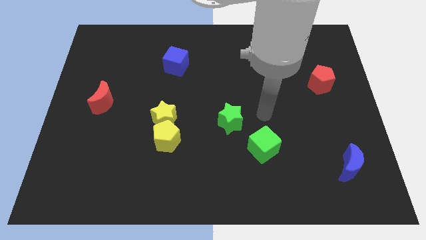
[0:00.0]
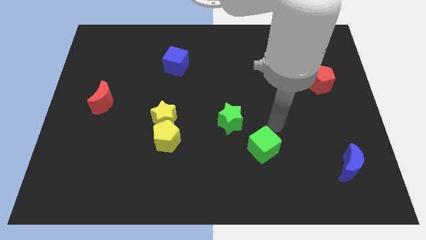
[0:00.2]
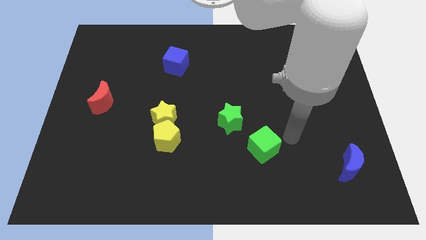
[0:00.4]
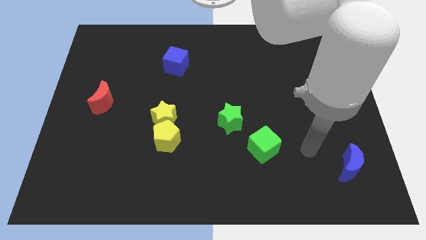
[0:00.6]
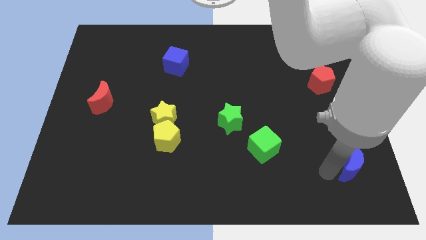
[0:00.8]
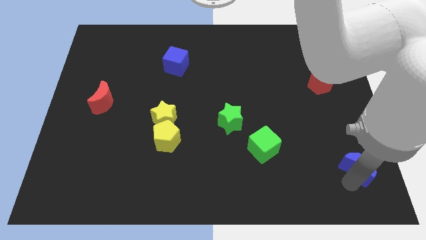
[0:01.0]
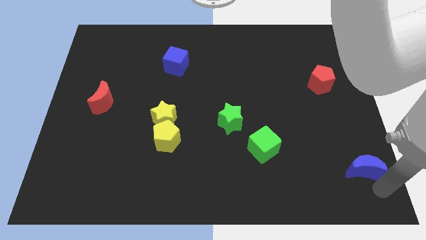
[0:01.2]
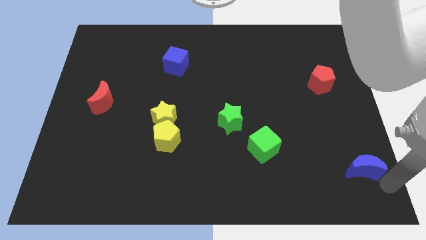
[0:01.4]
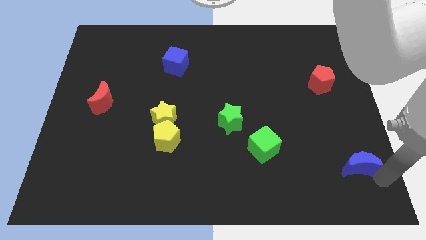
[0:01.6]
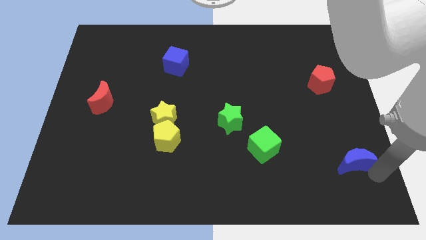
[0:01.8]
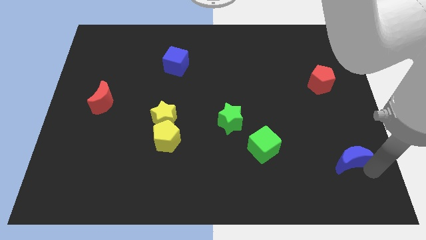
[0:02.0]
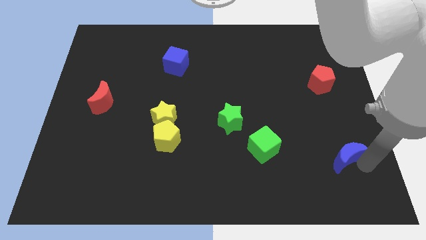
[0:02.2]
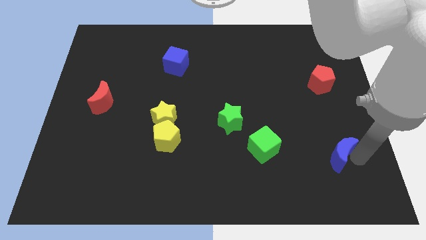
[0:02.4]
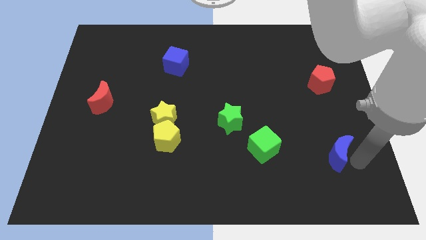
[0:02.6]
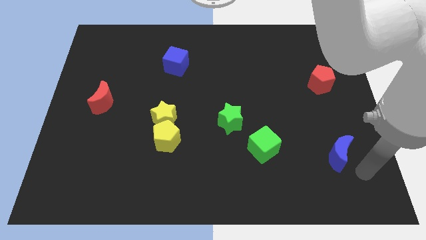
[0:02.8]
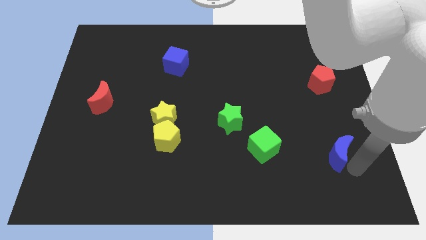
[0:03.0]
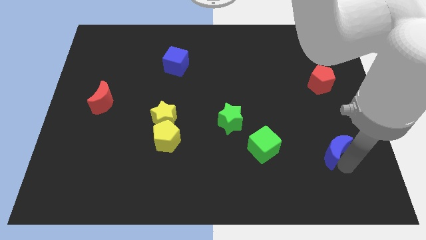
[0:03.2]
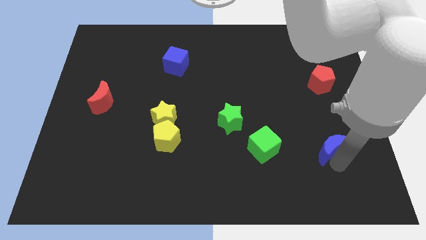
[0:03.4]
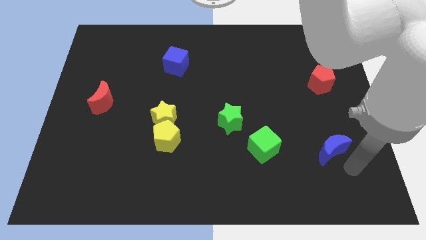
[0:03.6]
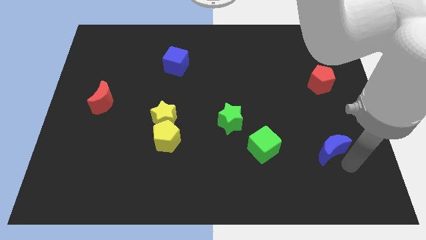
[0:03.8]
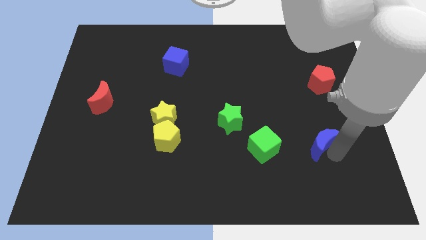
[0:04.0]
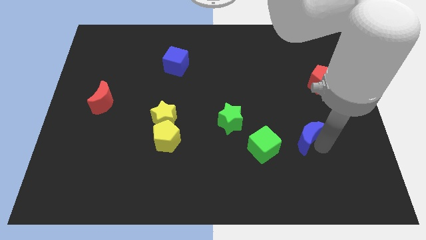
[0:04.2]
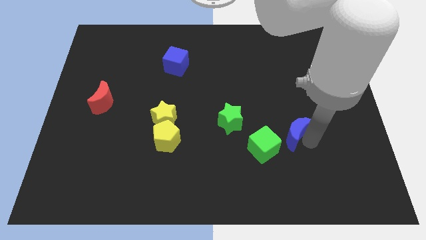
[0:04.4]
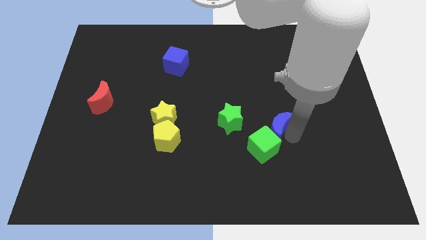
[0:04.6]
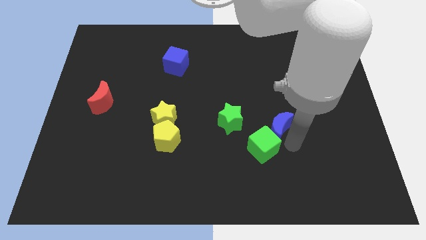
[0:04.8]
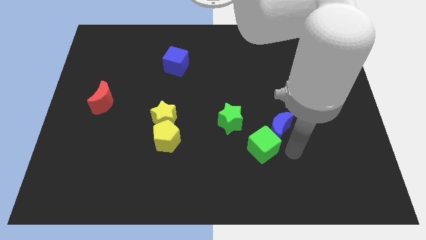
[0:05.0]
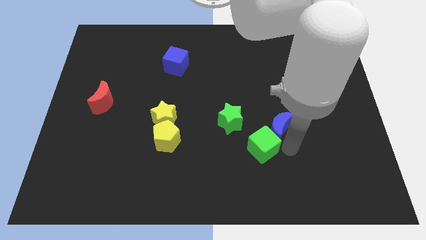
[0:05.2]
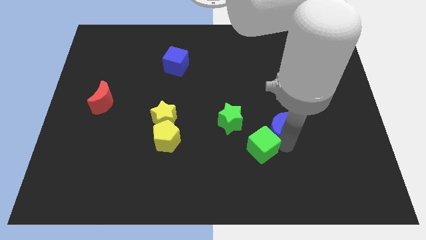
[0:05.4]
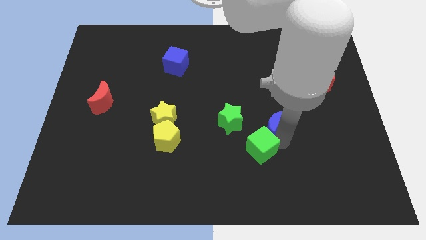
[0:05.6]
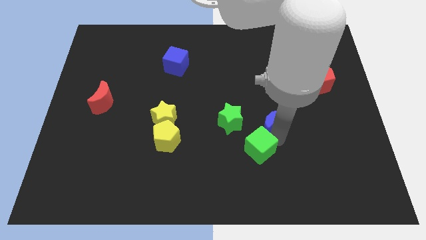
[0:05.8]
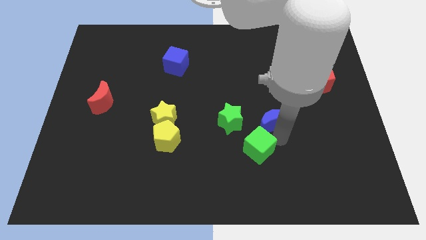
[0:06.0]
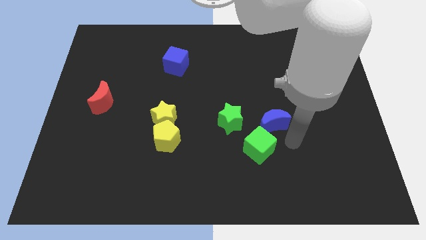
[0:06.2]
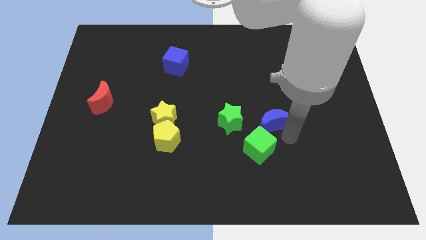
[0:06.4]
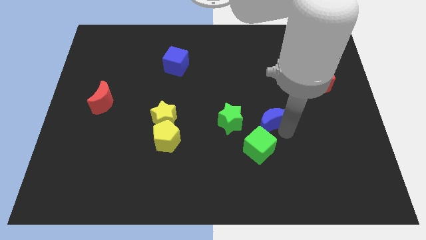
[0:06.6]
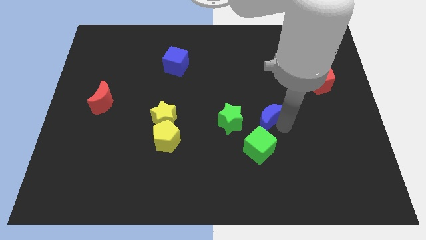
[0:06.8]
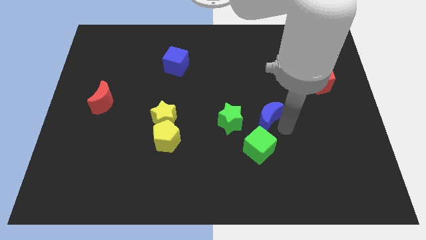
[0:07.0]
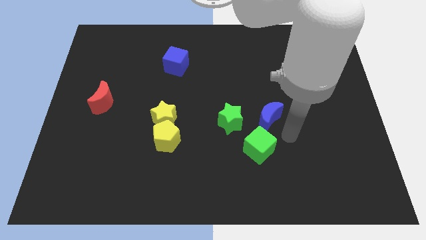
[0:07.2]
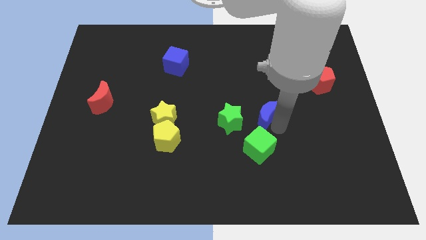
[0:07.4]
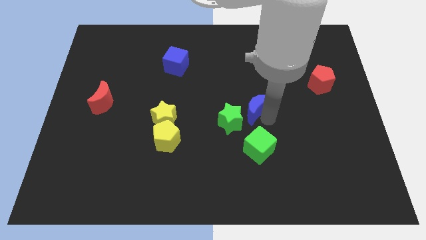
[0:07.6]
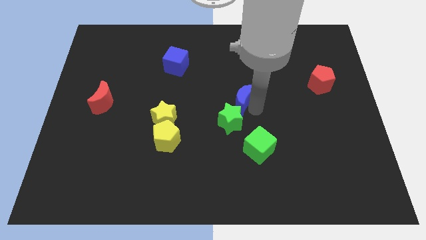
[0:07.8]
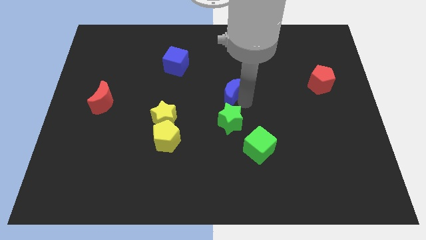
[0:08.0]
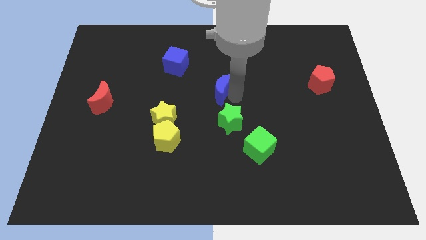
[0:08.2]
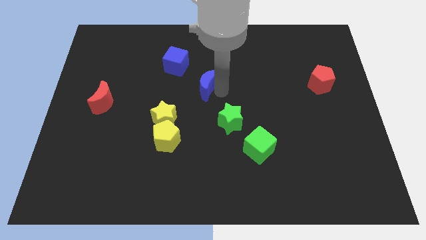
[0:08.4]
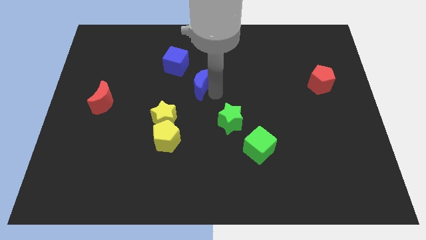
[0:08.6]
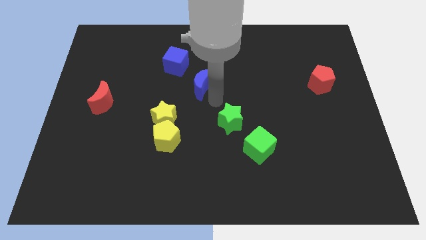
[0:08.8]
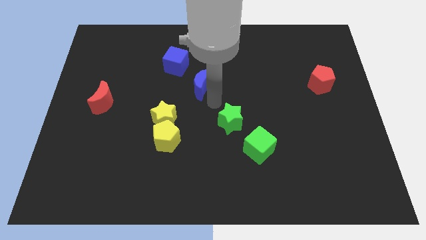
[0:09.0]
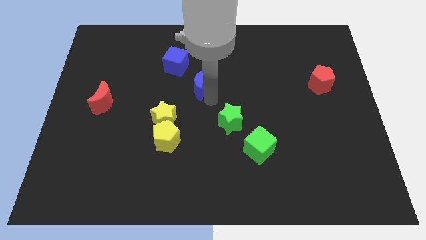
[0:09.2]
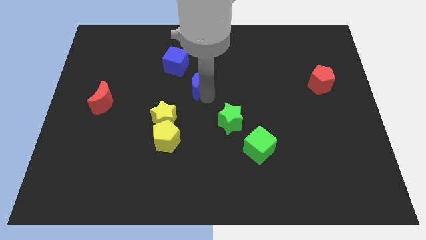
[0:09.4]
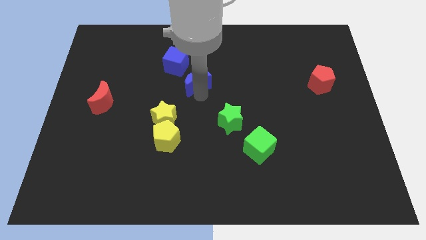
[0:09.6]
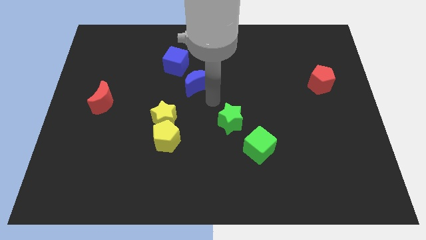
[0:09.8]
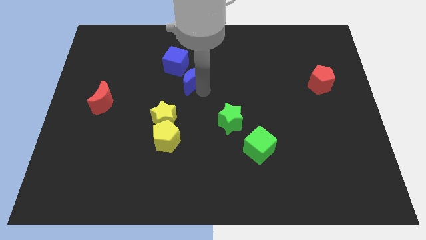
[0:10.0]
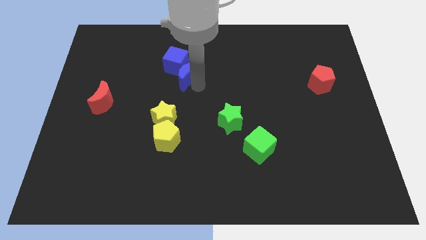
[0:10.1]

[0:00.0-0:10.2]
slide the blue moon next to the blue cube

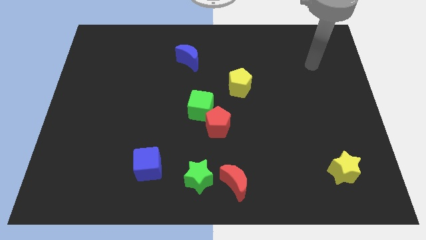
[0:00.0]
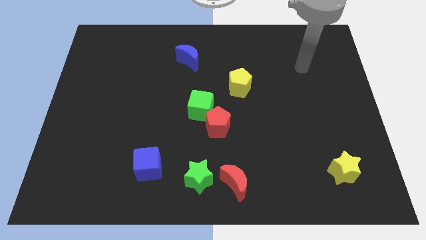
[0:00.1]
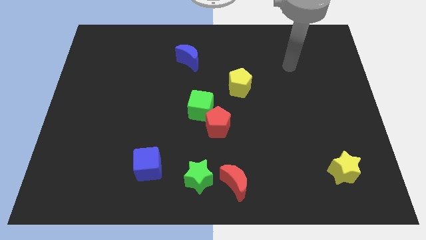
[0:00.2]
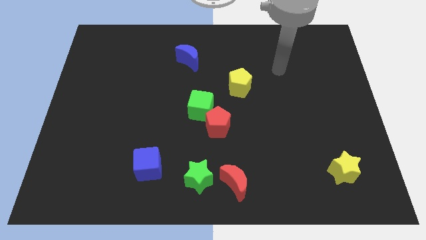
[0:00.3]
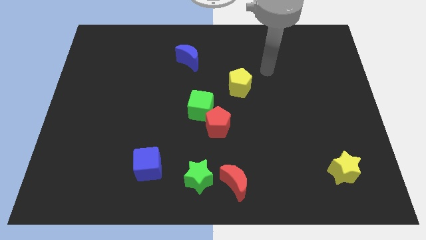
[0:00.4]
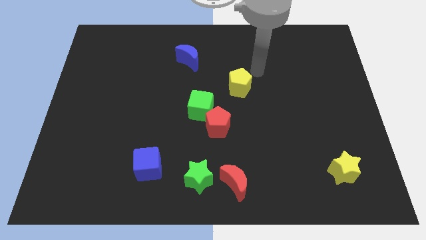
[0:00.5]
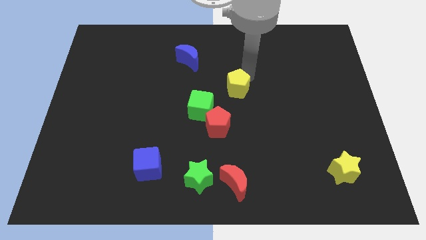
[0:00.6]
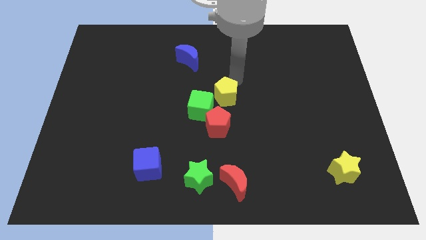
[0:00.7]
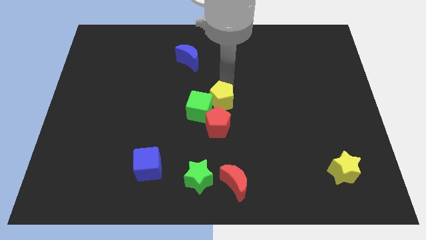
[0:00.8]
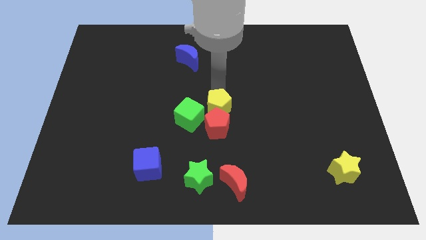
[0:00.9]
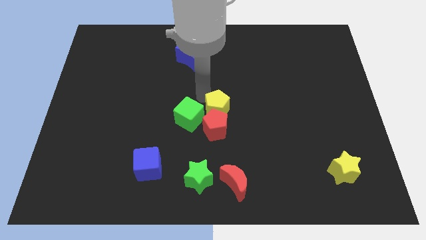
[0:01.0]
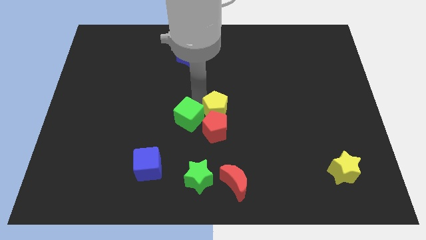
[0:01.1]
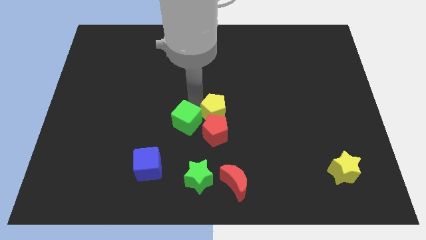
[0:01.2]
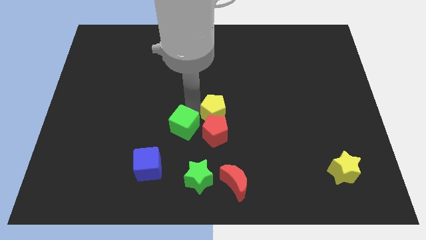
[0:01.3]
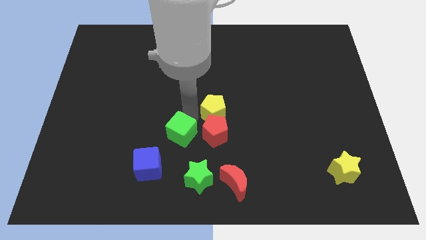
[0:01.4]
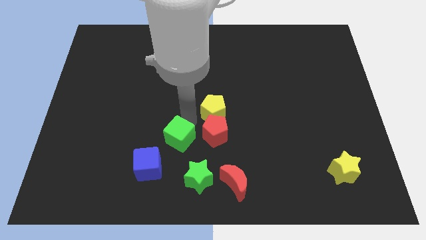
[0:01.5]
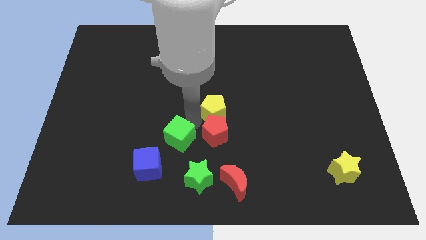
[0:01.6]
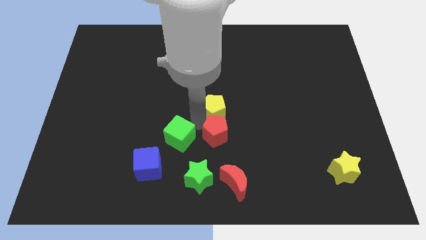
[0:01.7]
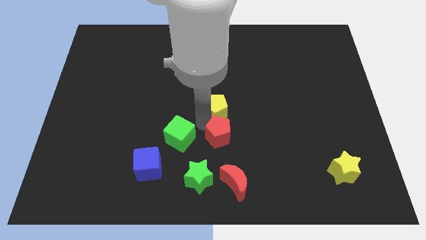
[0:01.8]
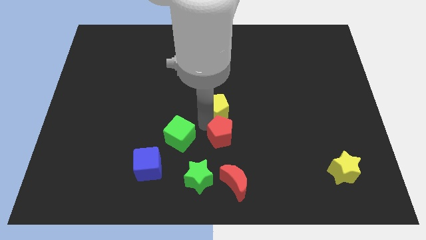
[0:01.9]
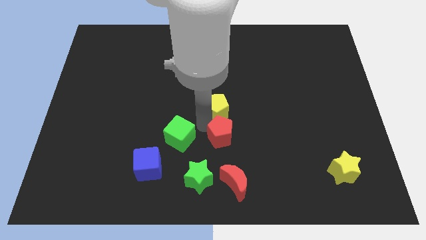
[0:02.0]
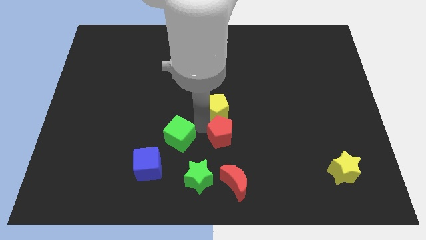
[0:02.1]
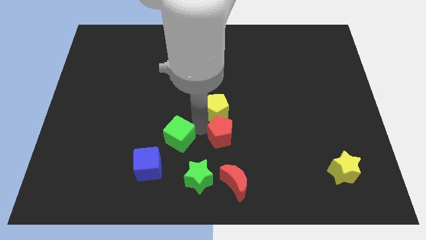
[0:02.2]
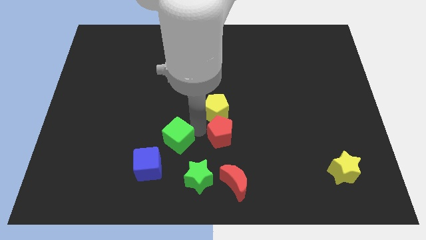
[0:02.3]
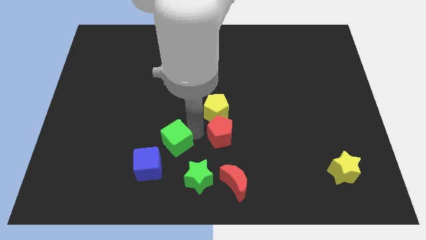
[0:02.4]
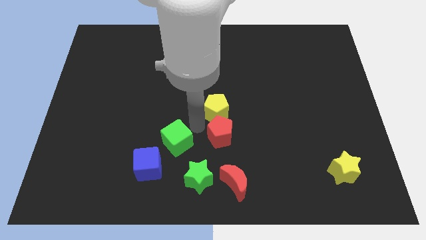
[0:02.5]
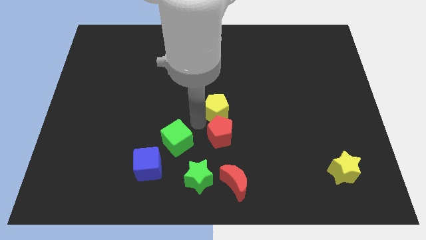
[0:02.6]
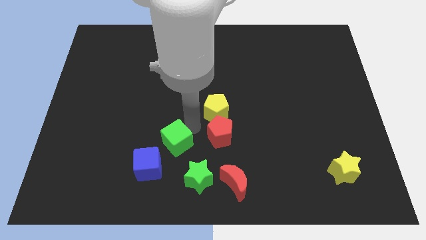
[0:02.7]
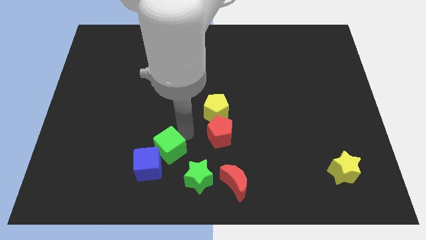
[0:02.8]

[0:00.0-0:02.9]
push the green cube to the blue cube

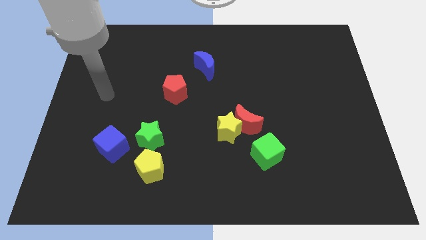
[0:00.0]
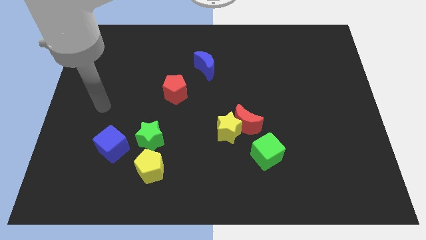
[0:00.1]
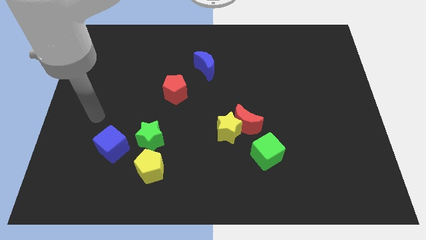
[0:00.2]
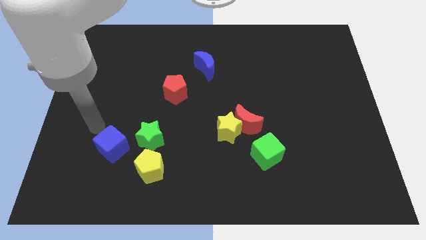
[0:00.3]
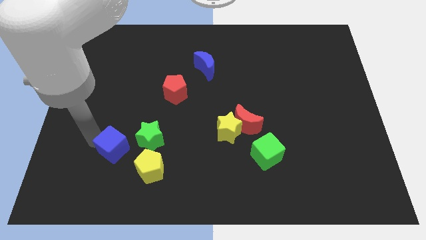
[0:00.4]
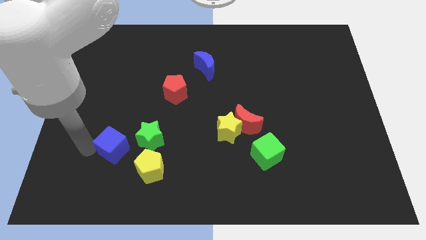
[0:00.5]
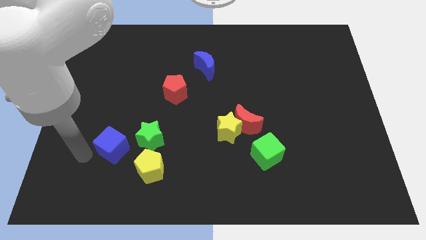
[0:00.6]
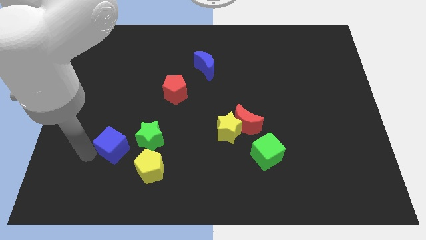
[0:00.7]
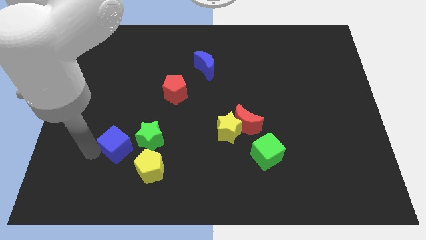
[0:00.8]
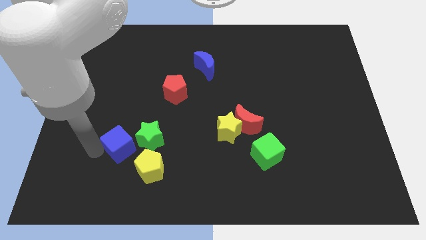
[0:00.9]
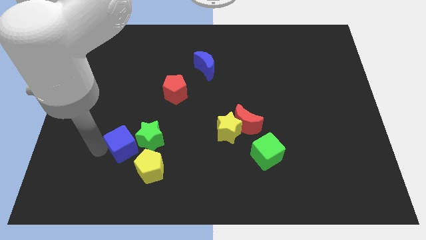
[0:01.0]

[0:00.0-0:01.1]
push the blue cube to the green star
